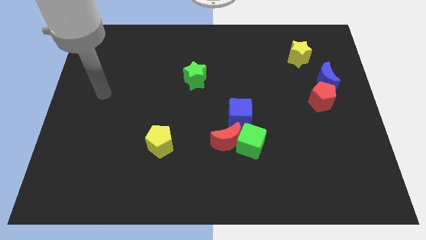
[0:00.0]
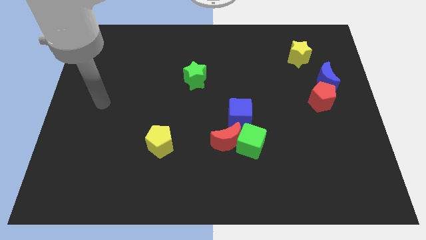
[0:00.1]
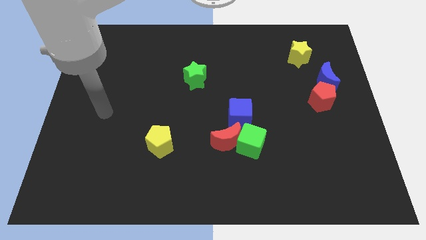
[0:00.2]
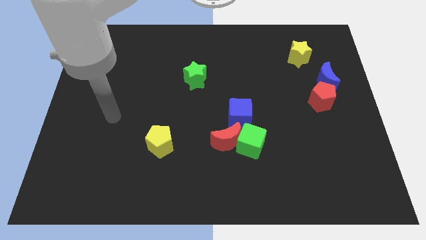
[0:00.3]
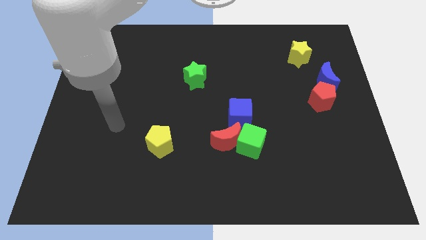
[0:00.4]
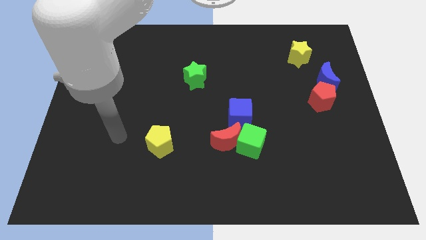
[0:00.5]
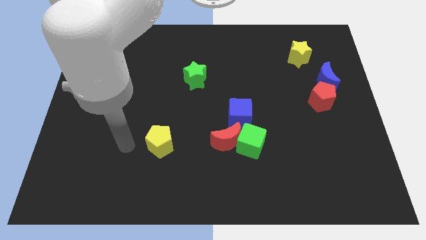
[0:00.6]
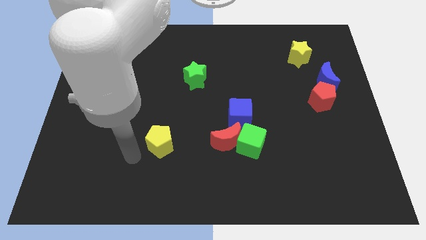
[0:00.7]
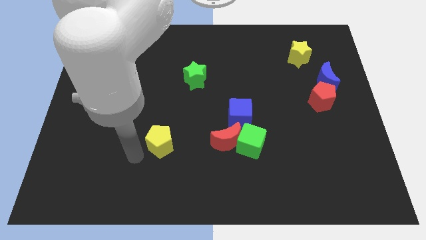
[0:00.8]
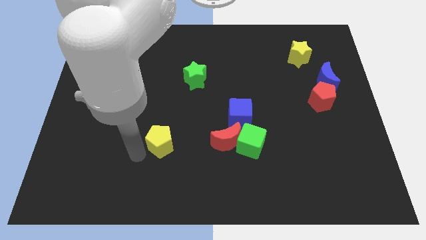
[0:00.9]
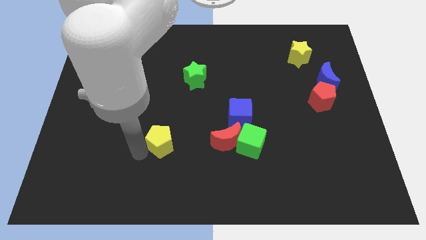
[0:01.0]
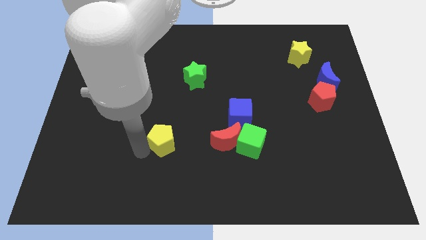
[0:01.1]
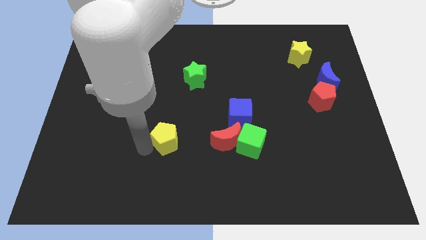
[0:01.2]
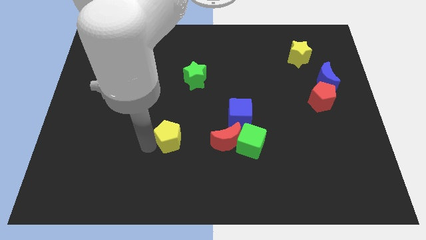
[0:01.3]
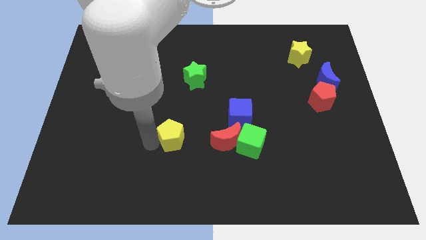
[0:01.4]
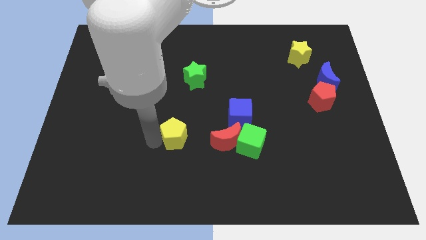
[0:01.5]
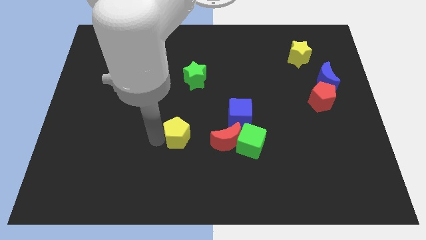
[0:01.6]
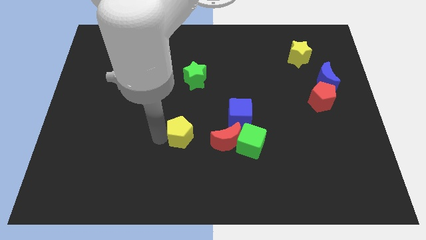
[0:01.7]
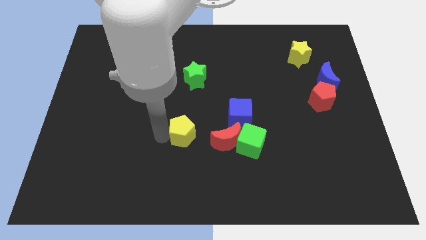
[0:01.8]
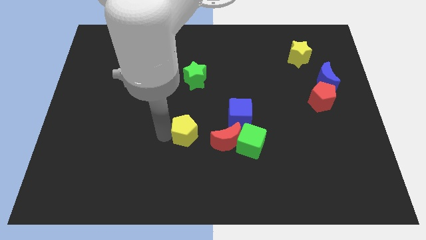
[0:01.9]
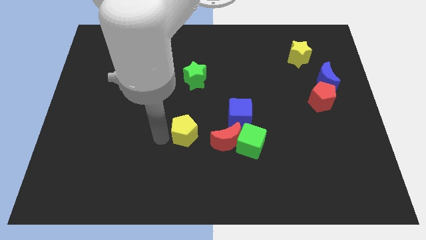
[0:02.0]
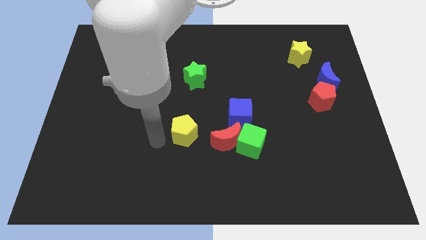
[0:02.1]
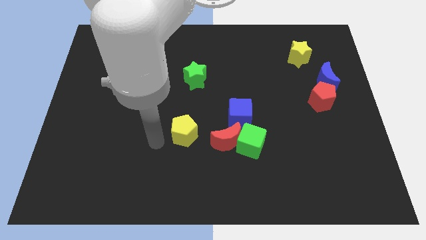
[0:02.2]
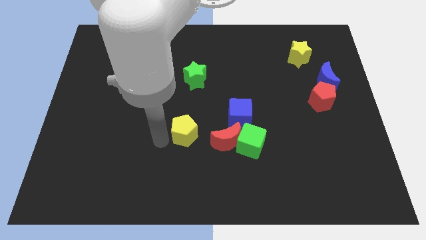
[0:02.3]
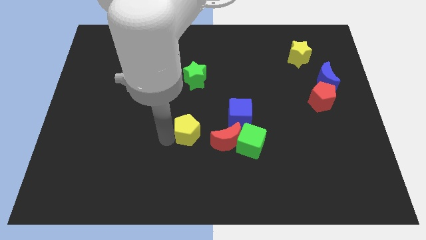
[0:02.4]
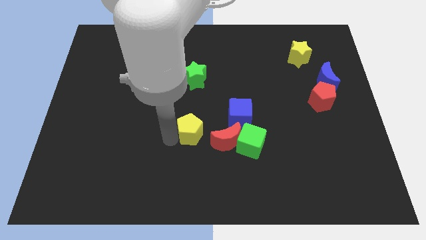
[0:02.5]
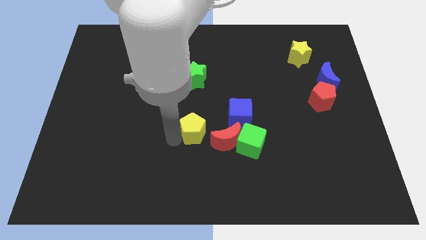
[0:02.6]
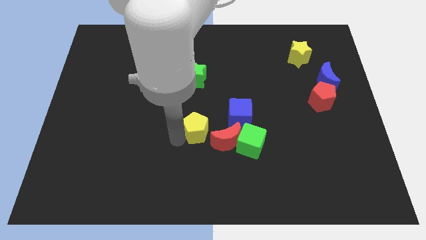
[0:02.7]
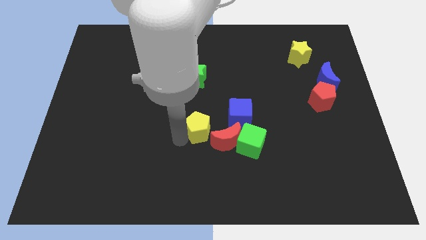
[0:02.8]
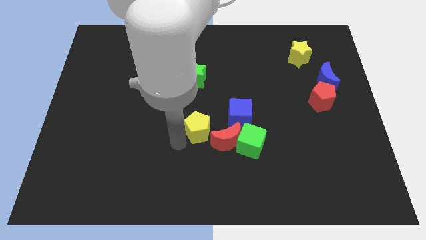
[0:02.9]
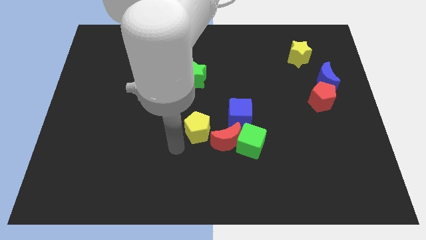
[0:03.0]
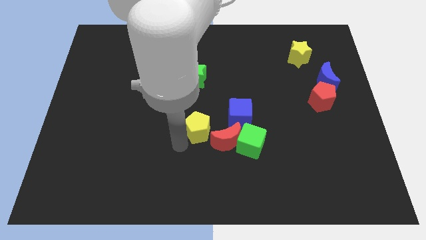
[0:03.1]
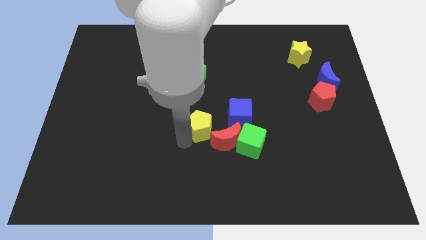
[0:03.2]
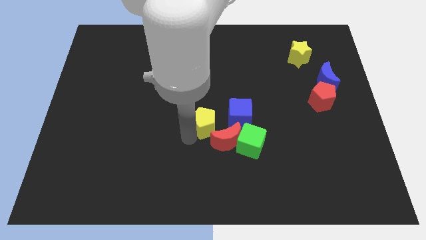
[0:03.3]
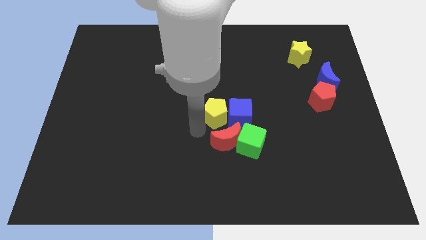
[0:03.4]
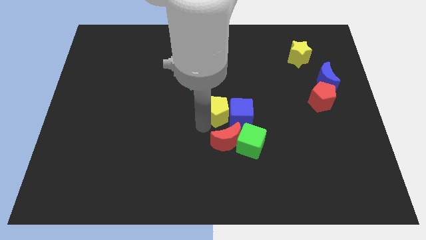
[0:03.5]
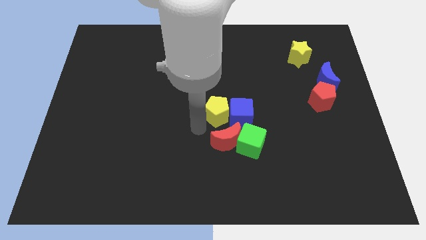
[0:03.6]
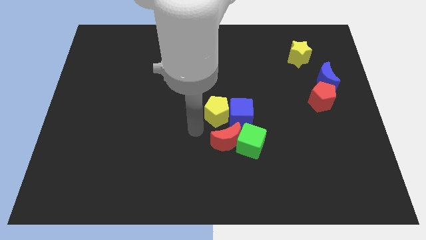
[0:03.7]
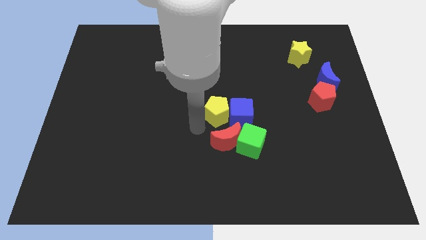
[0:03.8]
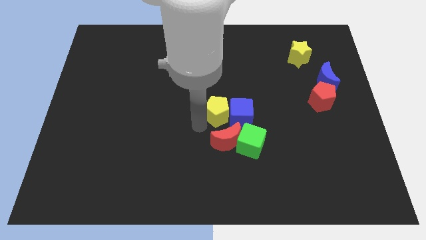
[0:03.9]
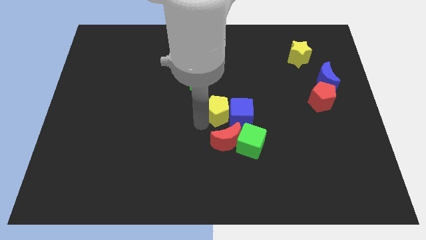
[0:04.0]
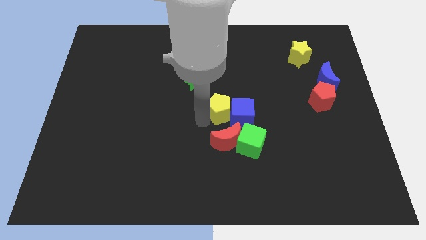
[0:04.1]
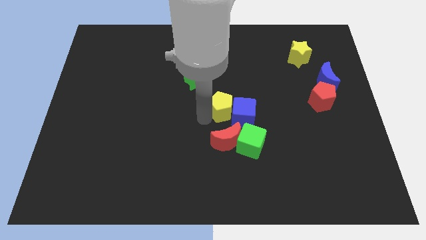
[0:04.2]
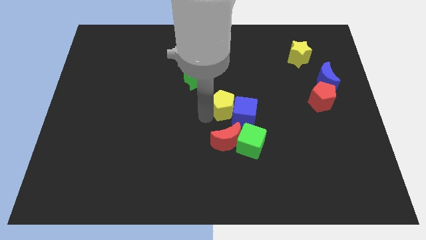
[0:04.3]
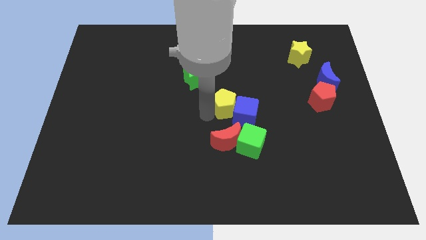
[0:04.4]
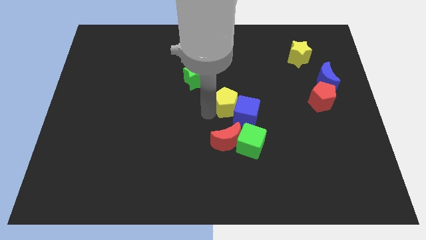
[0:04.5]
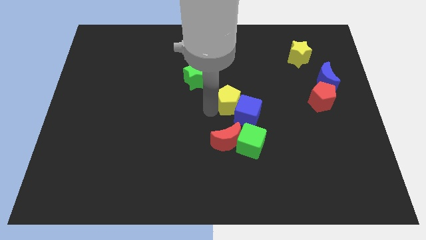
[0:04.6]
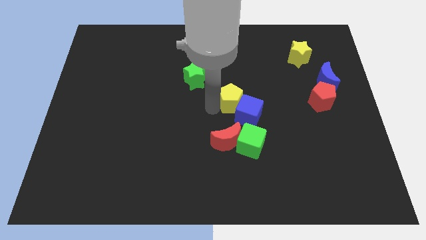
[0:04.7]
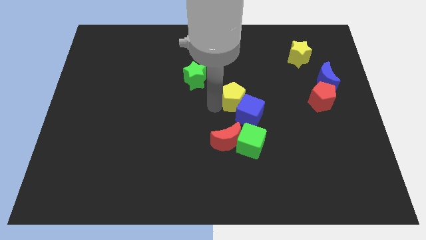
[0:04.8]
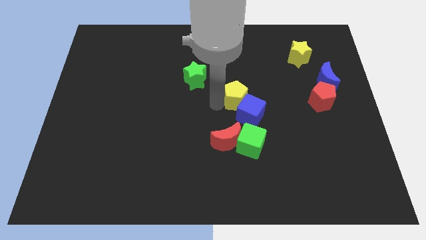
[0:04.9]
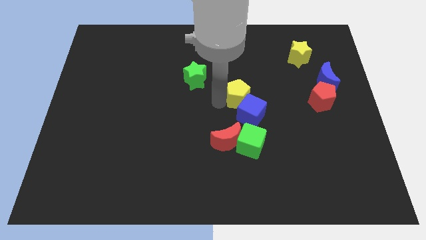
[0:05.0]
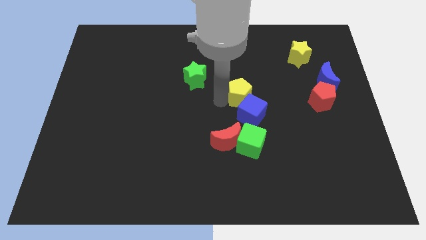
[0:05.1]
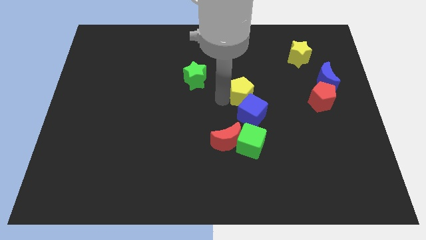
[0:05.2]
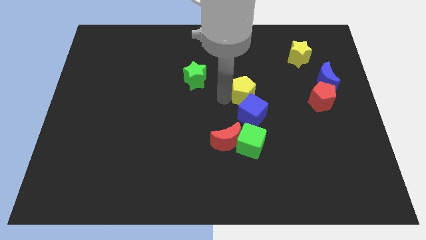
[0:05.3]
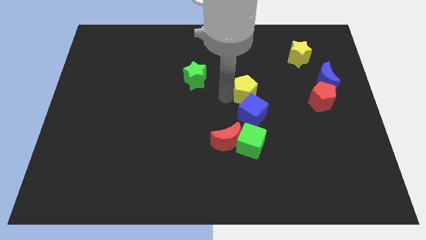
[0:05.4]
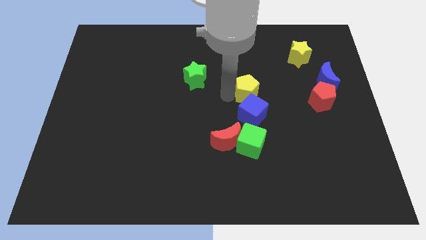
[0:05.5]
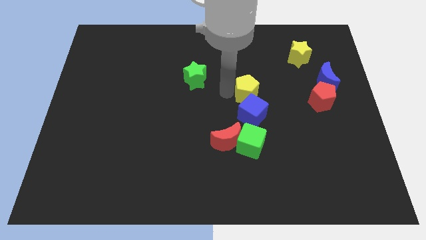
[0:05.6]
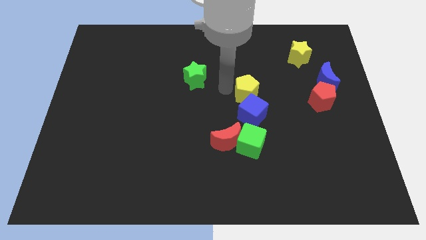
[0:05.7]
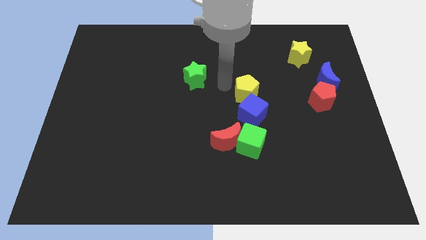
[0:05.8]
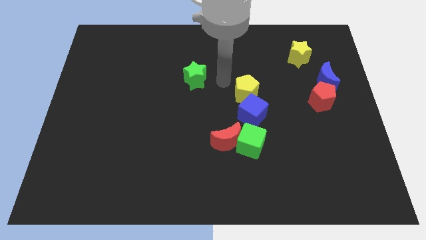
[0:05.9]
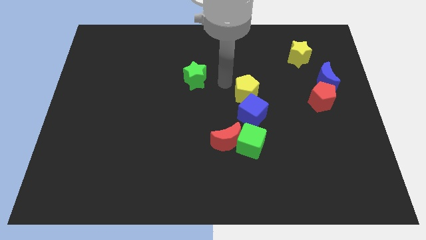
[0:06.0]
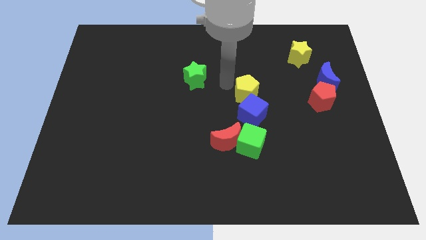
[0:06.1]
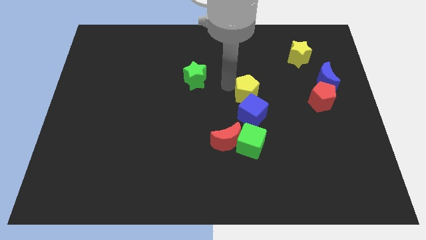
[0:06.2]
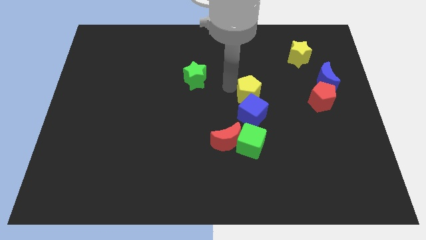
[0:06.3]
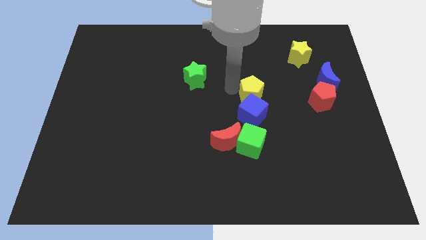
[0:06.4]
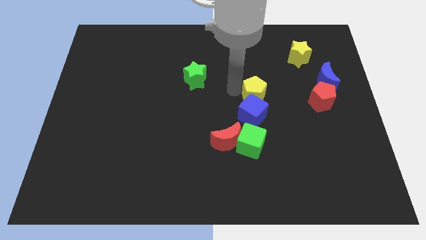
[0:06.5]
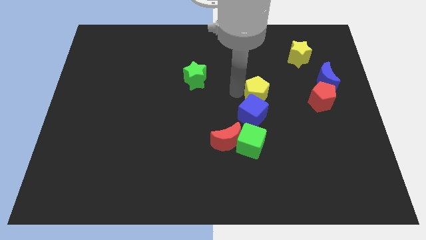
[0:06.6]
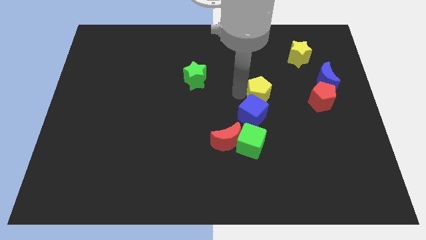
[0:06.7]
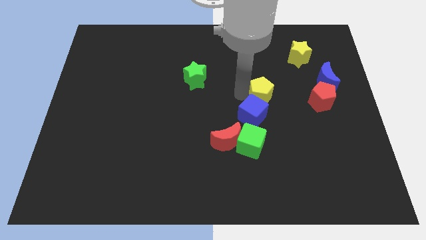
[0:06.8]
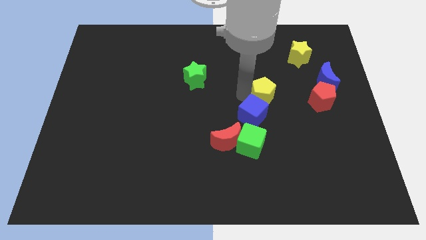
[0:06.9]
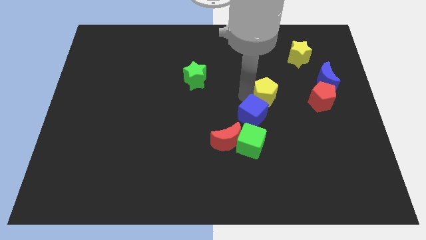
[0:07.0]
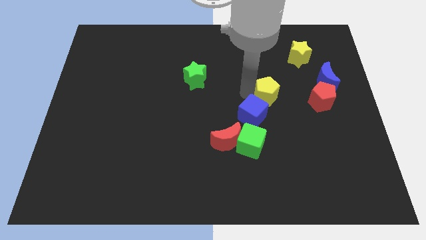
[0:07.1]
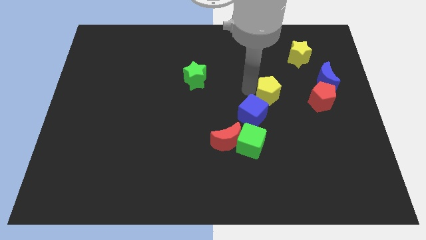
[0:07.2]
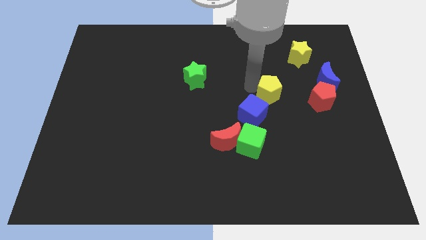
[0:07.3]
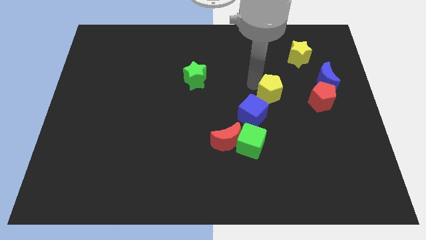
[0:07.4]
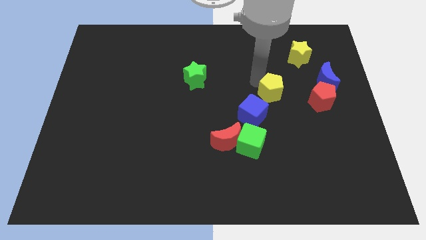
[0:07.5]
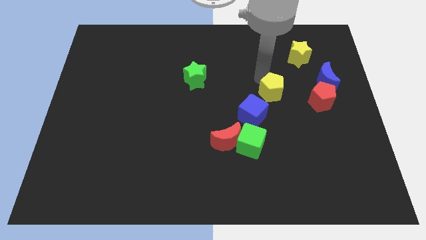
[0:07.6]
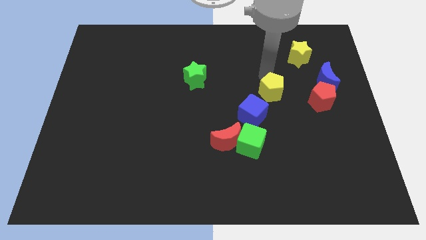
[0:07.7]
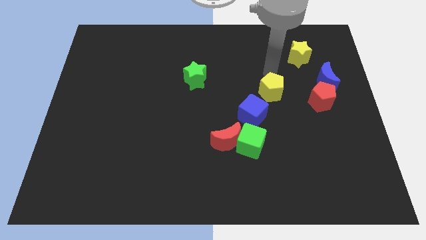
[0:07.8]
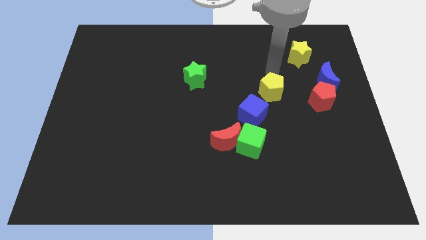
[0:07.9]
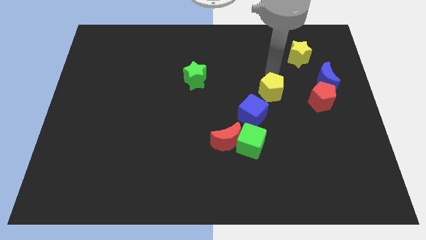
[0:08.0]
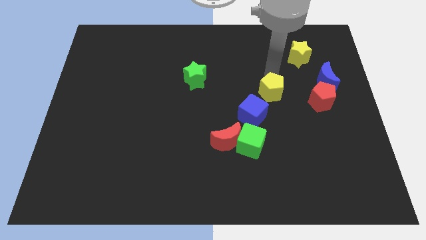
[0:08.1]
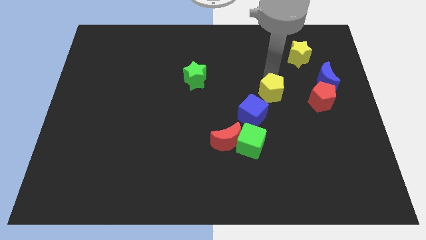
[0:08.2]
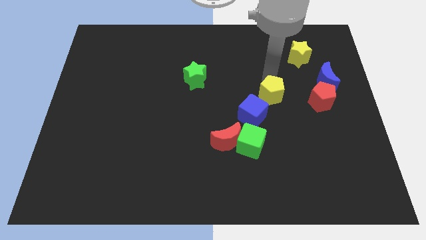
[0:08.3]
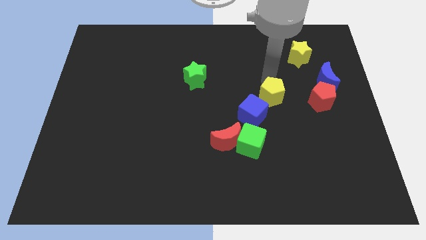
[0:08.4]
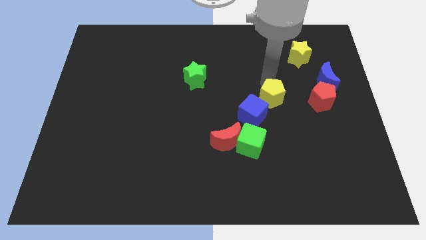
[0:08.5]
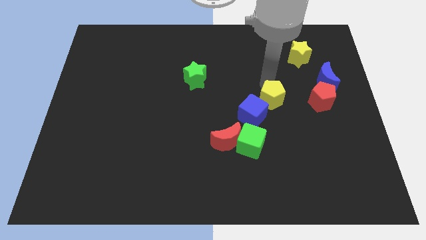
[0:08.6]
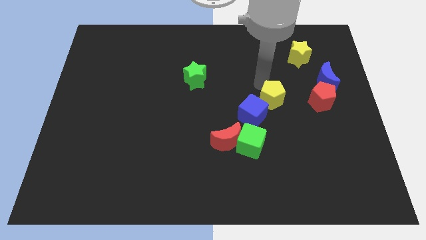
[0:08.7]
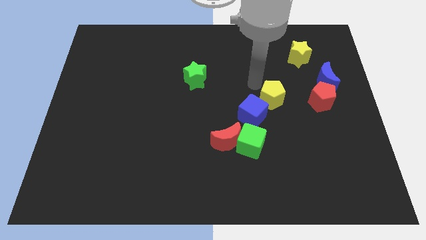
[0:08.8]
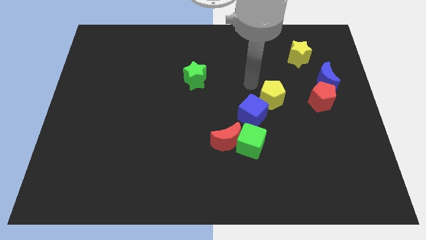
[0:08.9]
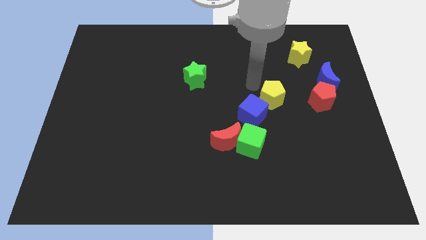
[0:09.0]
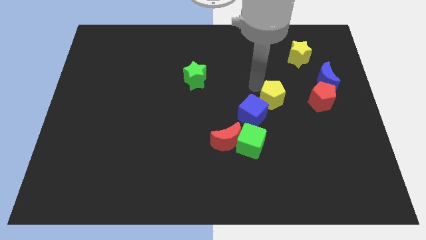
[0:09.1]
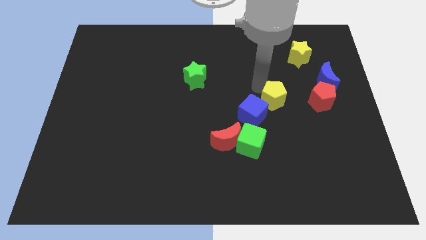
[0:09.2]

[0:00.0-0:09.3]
put the yellow pentagon right of the blue cube
